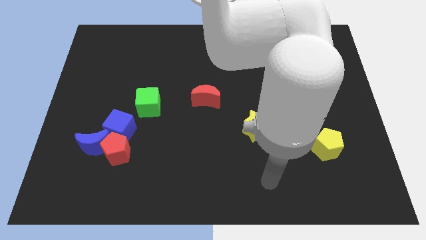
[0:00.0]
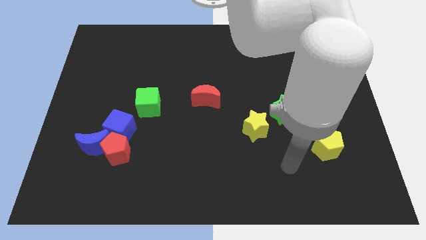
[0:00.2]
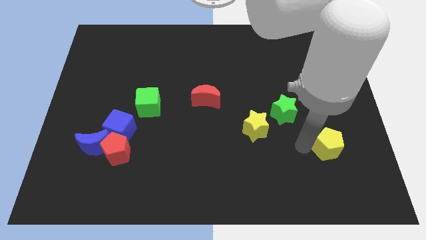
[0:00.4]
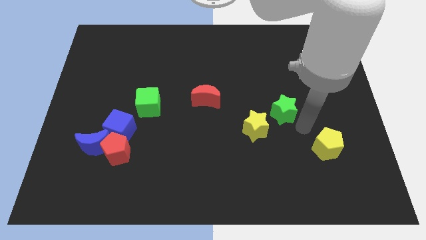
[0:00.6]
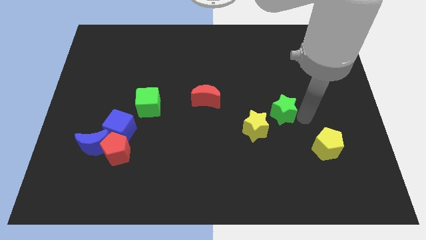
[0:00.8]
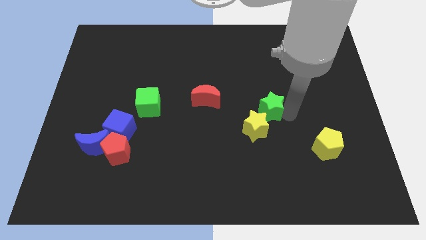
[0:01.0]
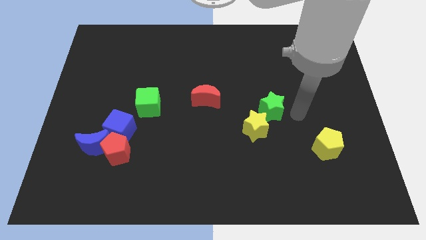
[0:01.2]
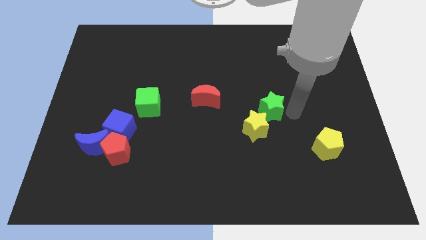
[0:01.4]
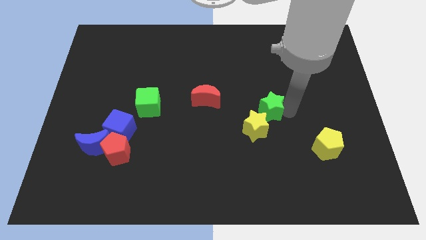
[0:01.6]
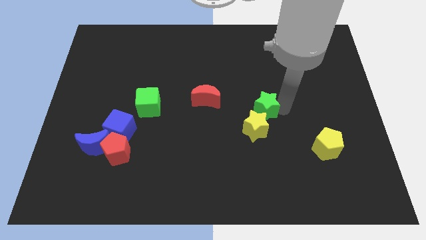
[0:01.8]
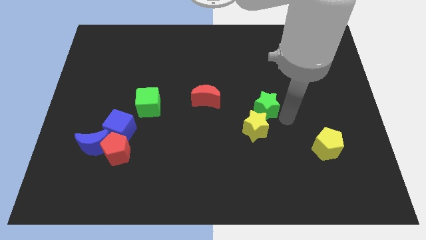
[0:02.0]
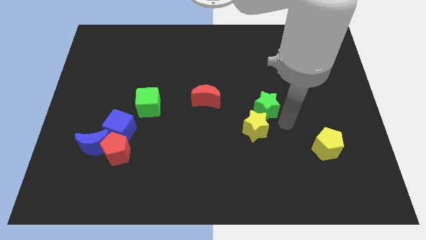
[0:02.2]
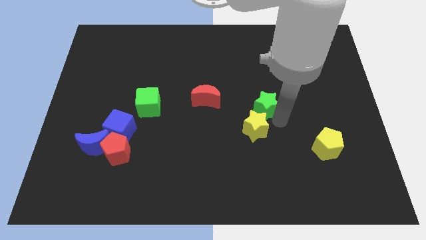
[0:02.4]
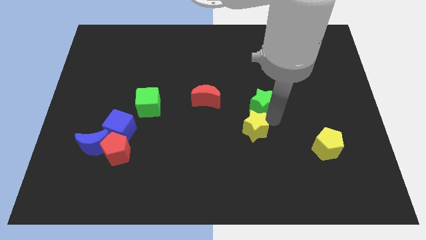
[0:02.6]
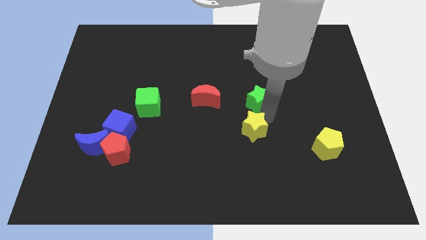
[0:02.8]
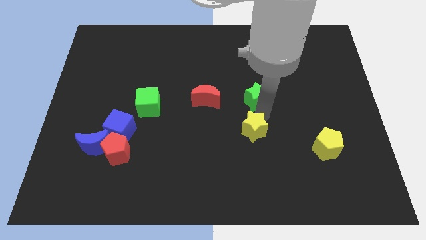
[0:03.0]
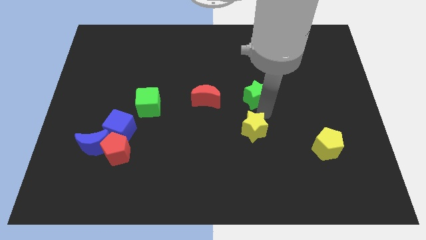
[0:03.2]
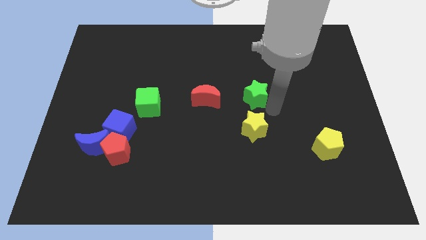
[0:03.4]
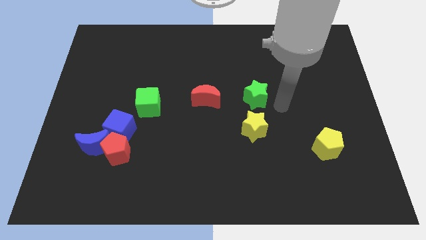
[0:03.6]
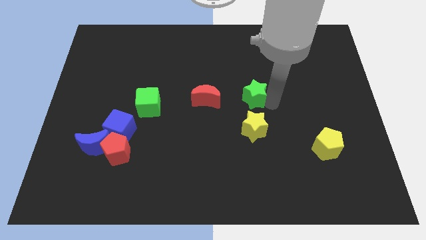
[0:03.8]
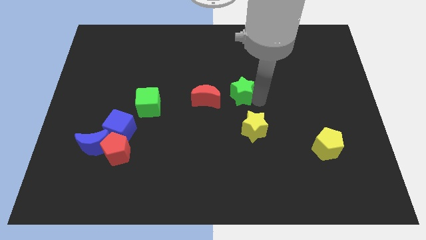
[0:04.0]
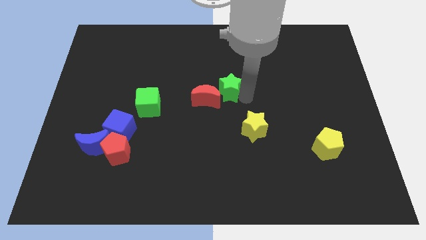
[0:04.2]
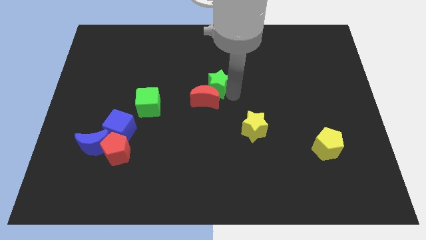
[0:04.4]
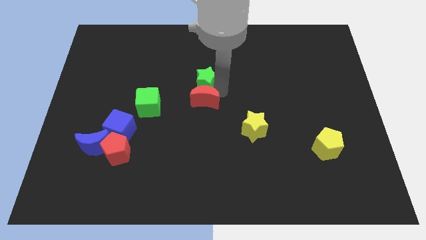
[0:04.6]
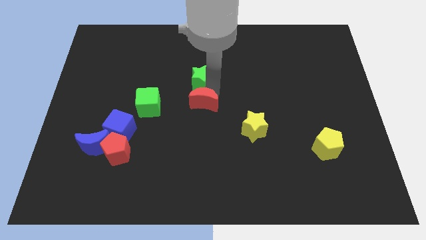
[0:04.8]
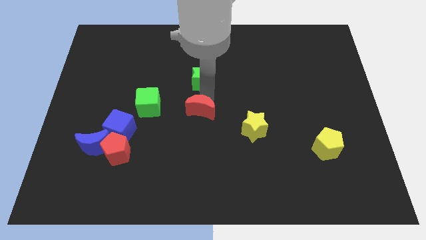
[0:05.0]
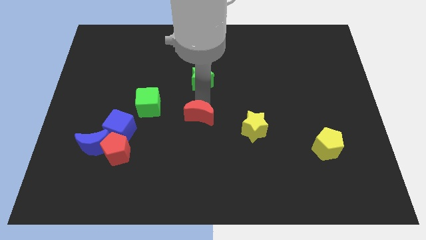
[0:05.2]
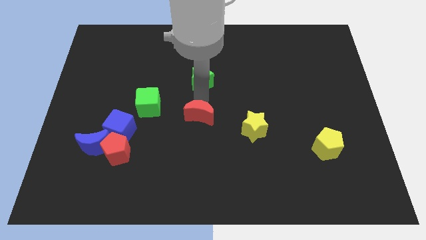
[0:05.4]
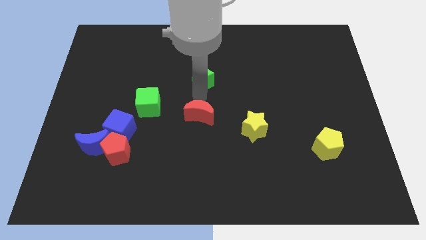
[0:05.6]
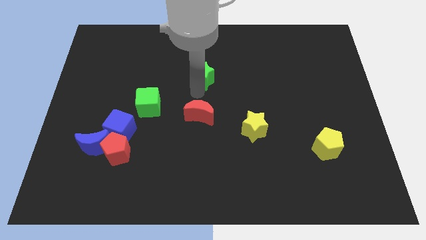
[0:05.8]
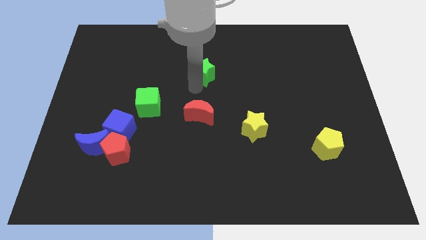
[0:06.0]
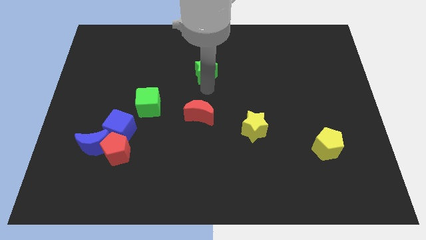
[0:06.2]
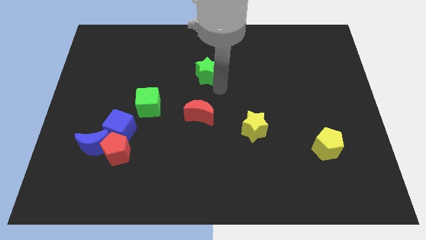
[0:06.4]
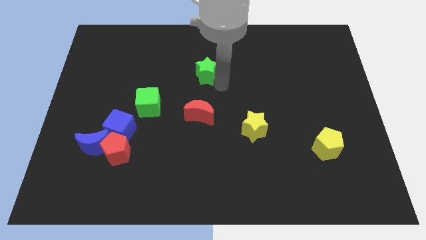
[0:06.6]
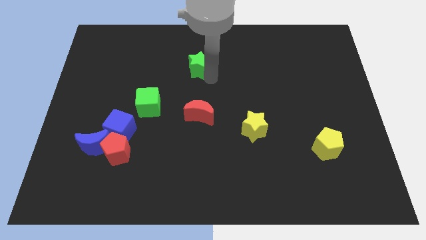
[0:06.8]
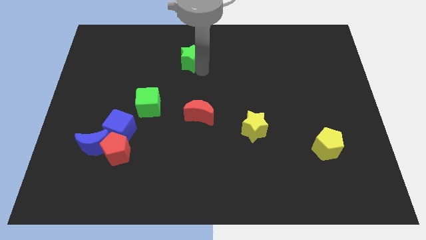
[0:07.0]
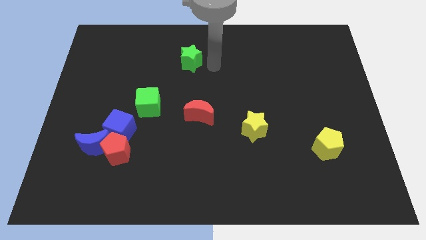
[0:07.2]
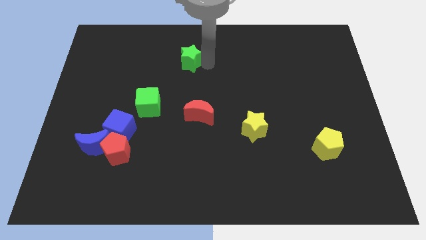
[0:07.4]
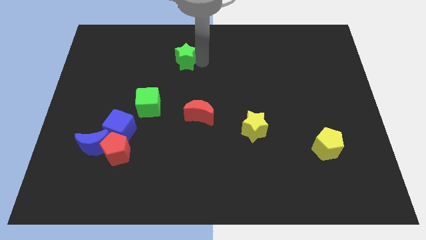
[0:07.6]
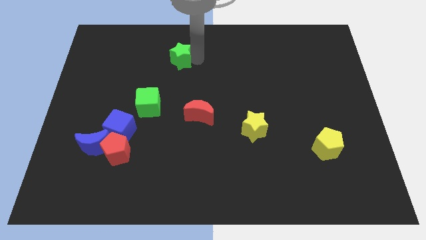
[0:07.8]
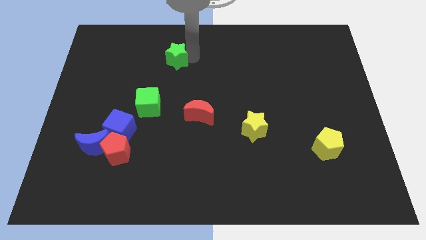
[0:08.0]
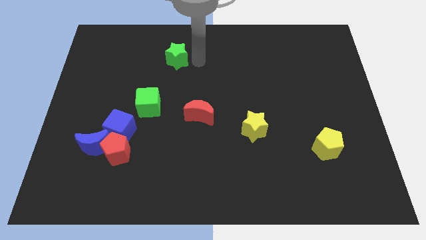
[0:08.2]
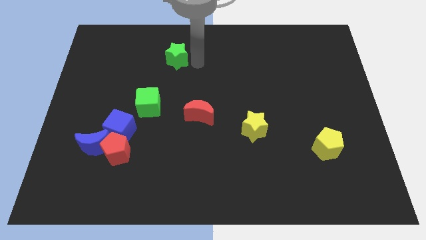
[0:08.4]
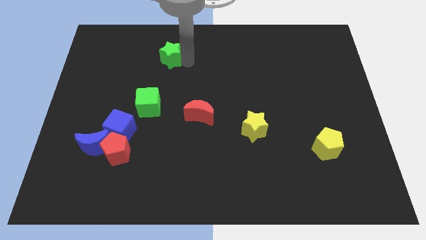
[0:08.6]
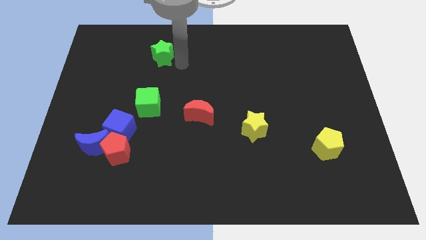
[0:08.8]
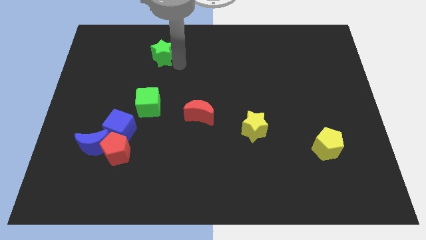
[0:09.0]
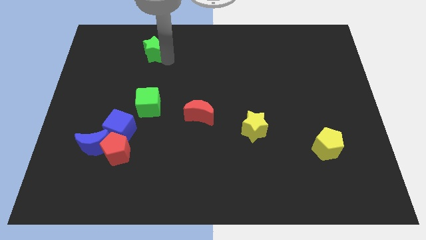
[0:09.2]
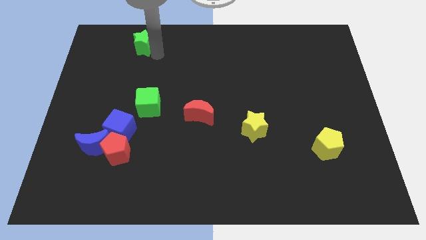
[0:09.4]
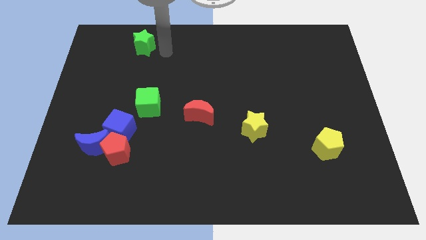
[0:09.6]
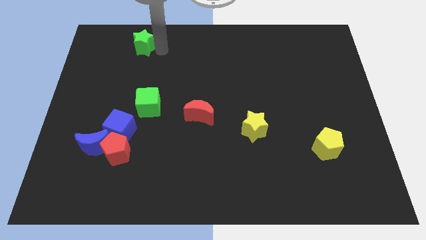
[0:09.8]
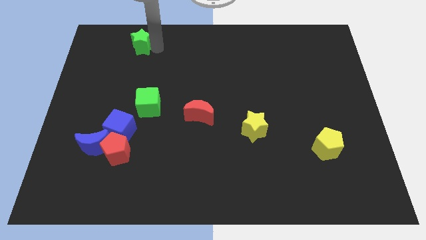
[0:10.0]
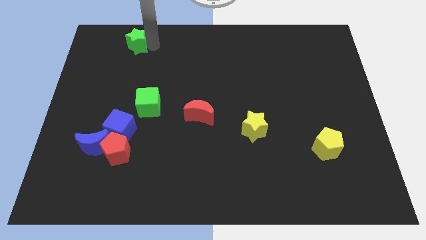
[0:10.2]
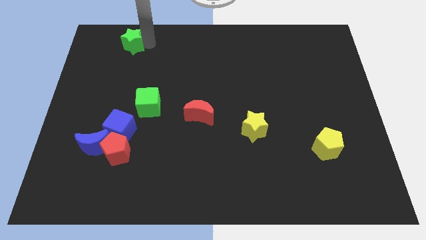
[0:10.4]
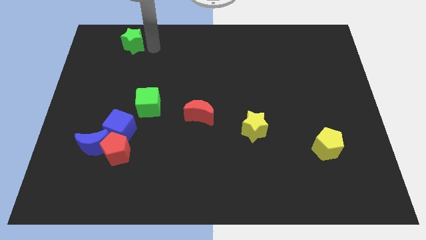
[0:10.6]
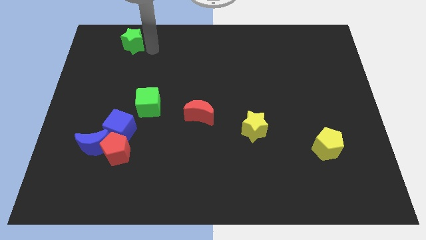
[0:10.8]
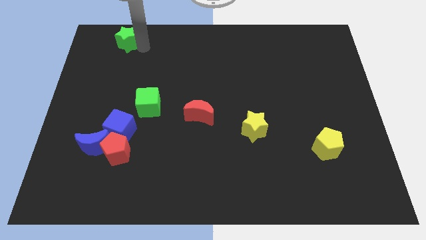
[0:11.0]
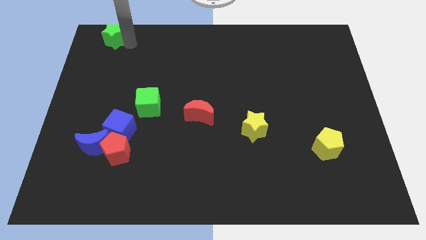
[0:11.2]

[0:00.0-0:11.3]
push the green star to the upper left corner

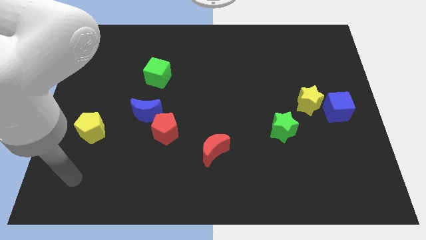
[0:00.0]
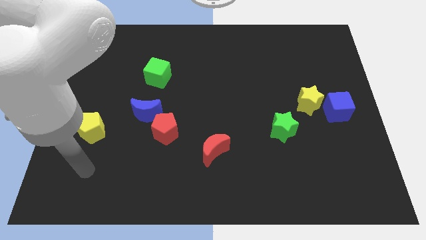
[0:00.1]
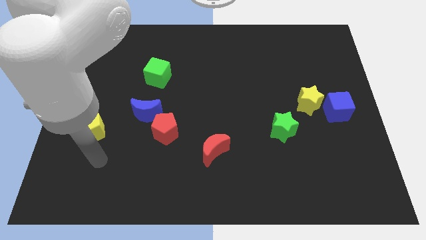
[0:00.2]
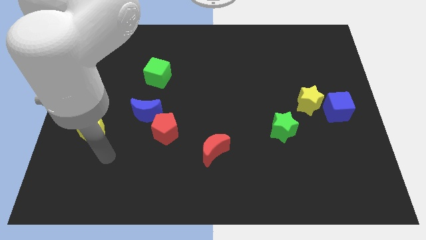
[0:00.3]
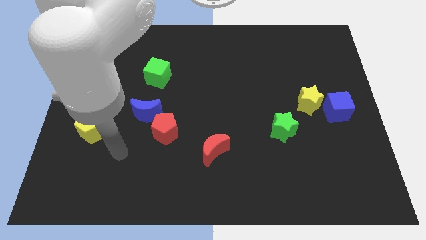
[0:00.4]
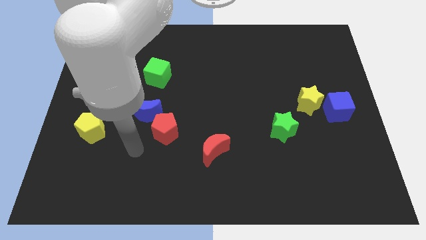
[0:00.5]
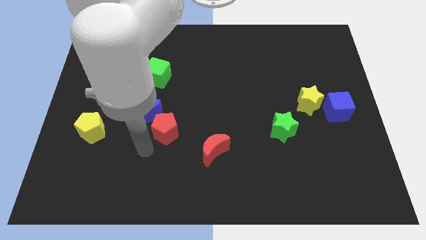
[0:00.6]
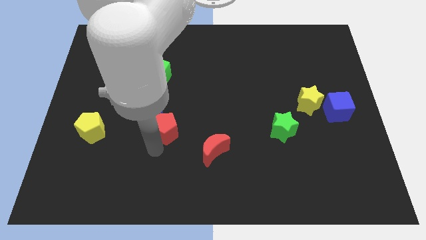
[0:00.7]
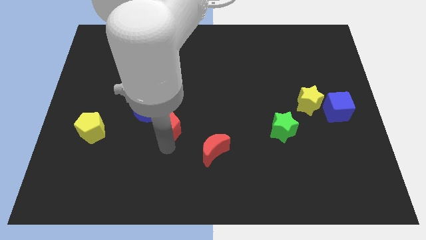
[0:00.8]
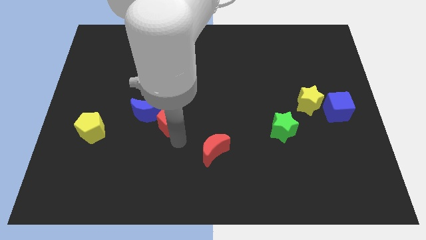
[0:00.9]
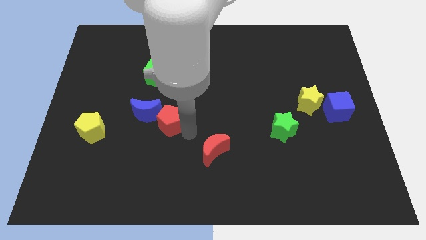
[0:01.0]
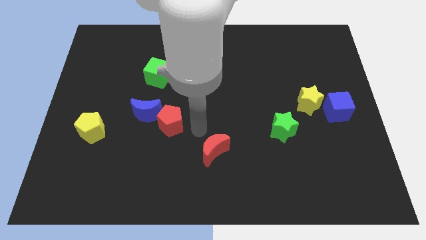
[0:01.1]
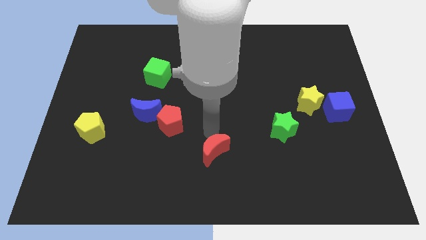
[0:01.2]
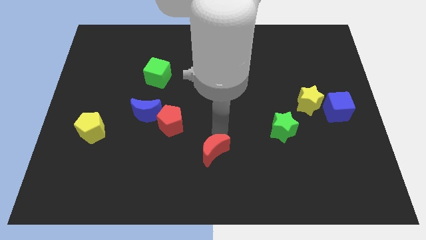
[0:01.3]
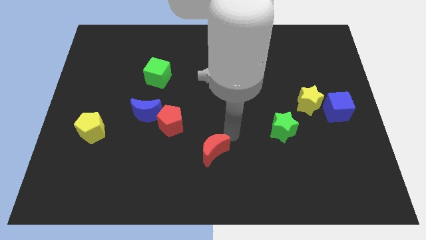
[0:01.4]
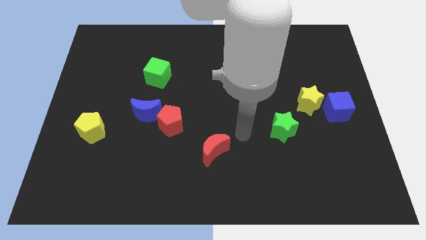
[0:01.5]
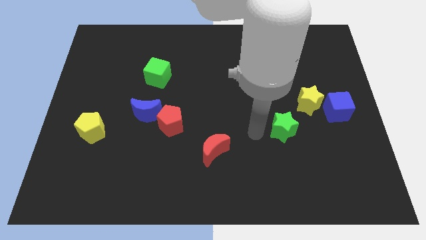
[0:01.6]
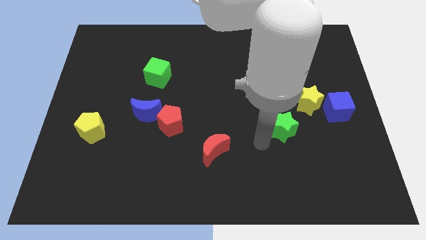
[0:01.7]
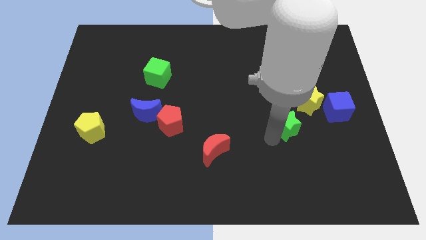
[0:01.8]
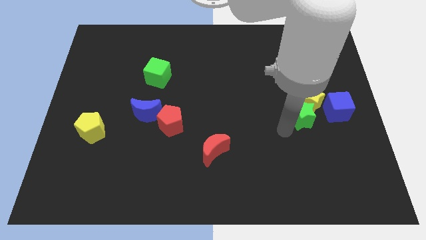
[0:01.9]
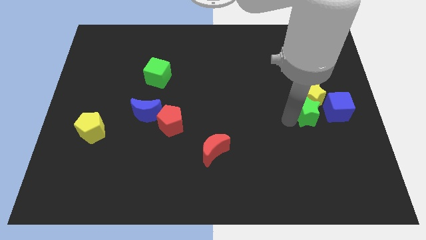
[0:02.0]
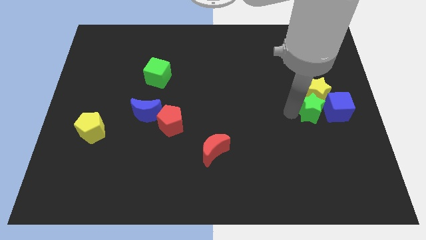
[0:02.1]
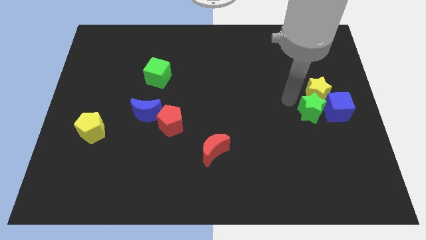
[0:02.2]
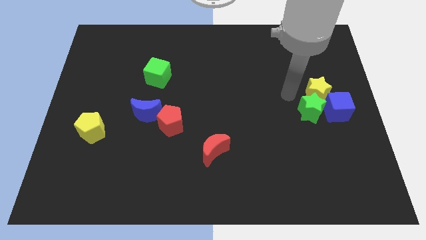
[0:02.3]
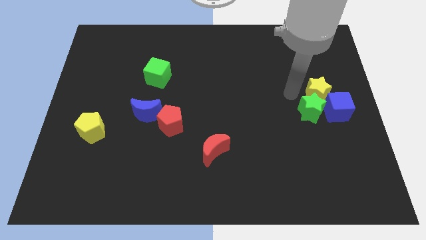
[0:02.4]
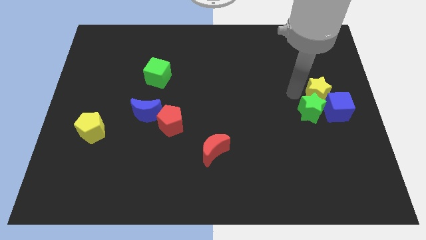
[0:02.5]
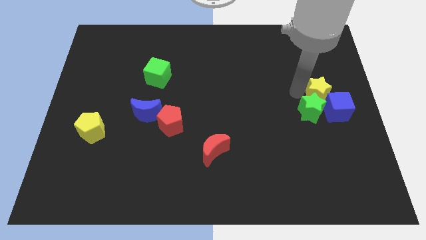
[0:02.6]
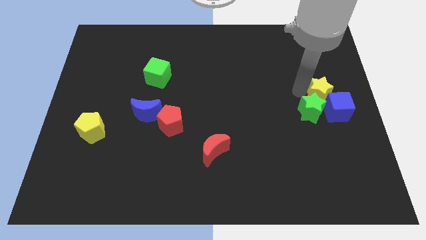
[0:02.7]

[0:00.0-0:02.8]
put the yellow star to the center right
